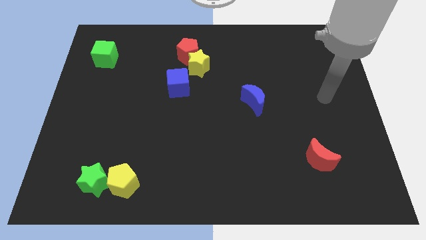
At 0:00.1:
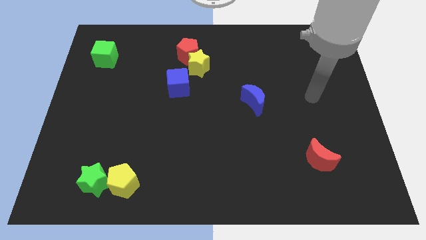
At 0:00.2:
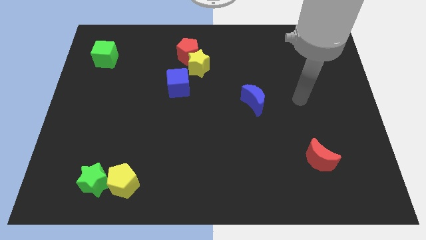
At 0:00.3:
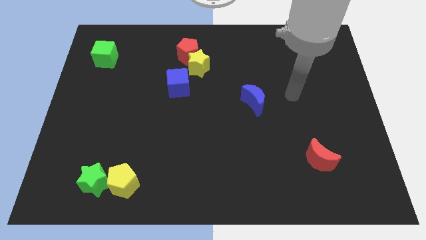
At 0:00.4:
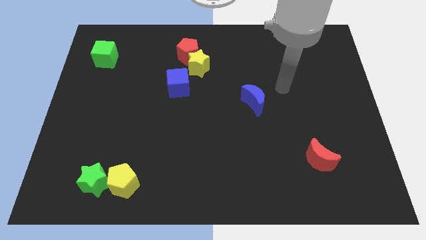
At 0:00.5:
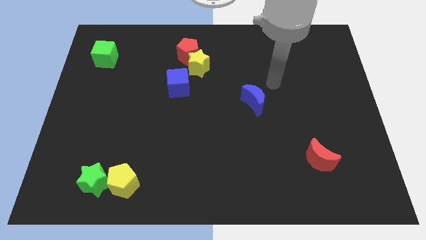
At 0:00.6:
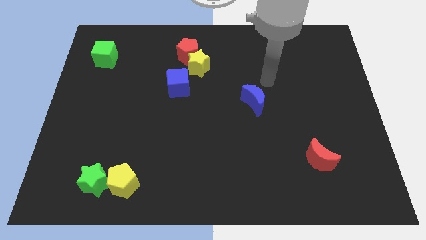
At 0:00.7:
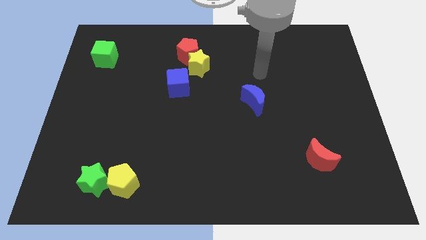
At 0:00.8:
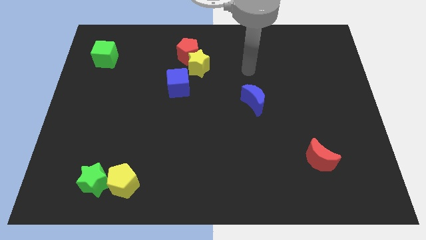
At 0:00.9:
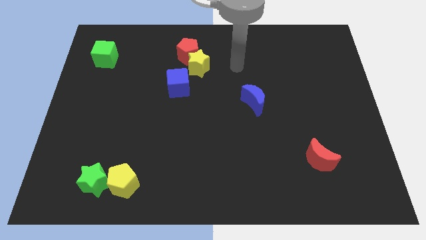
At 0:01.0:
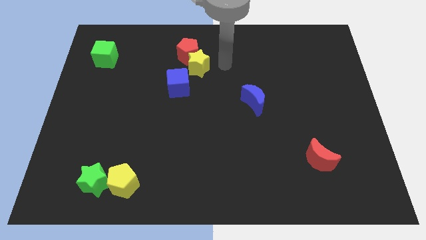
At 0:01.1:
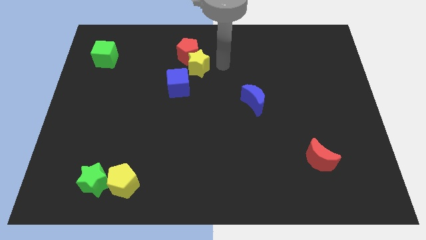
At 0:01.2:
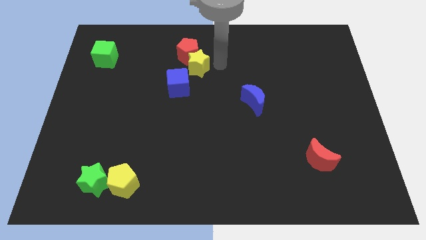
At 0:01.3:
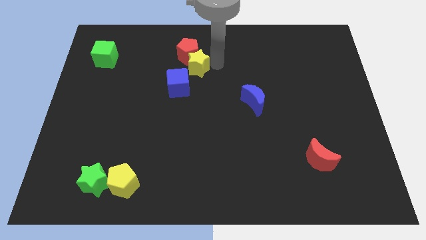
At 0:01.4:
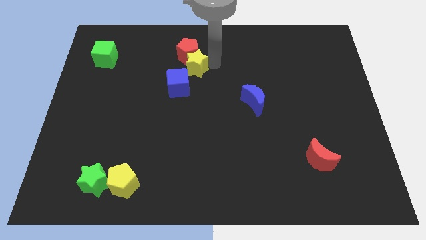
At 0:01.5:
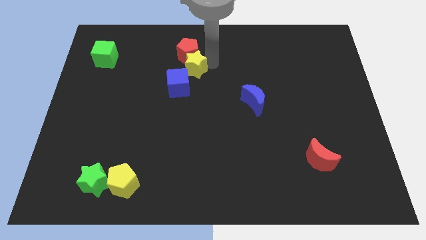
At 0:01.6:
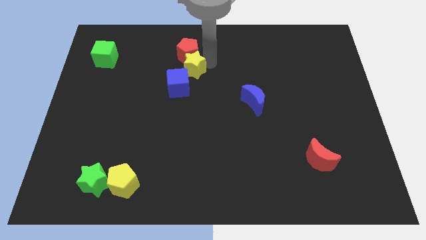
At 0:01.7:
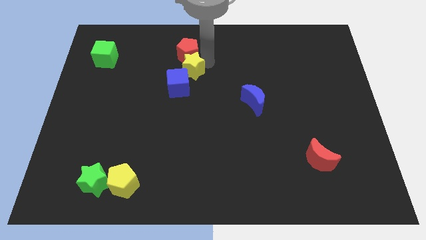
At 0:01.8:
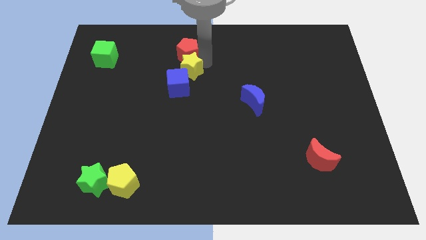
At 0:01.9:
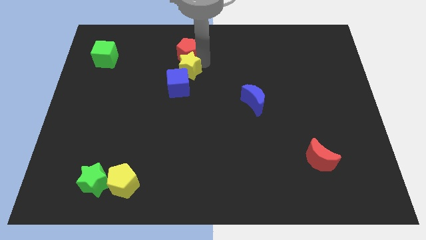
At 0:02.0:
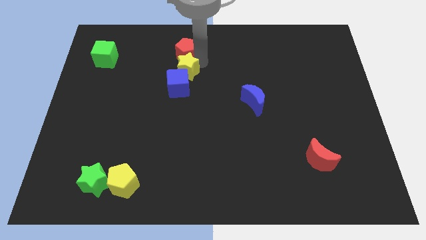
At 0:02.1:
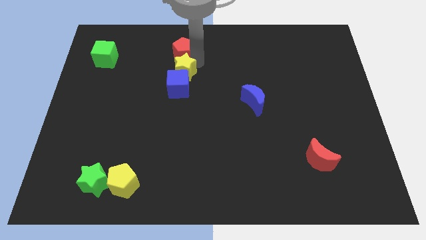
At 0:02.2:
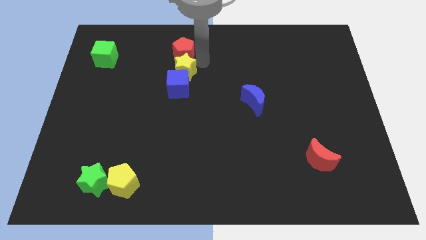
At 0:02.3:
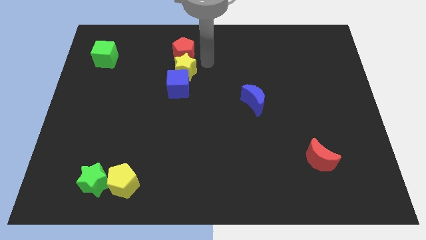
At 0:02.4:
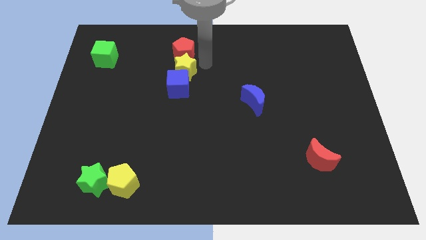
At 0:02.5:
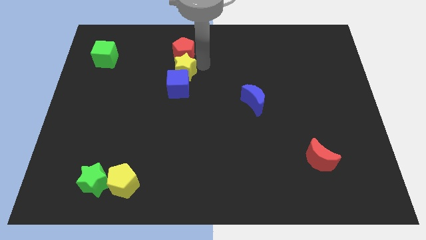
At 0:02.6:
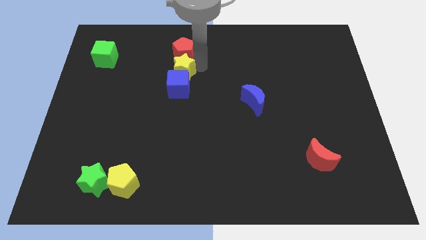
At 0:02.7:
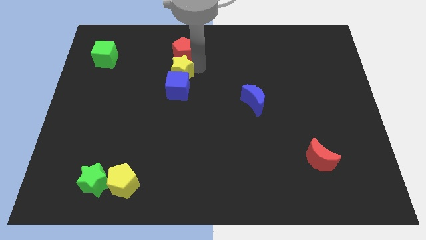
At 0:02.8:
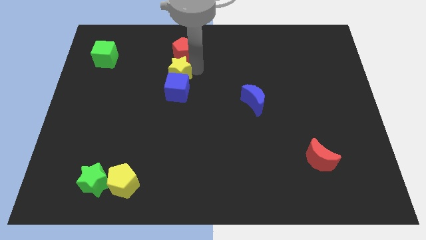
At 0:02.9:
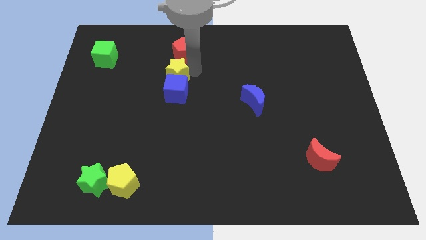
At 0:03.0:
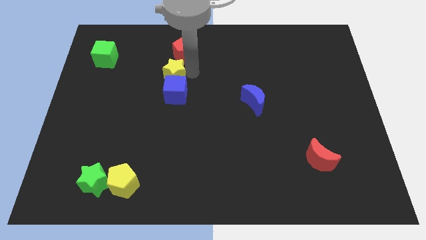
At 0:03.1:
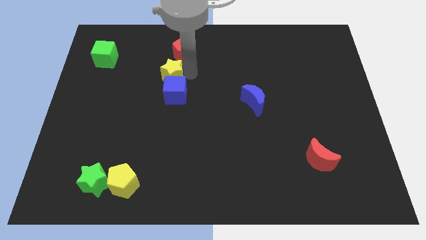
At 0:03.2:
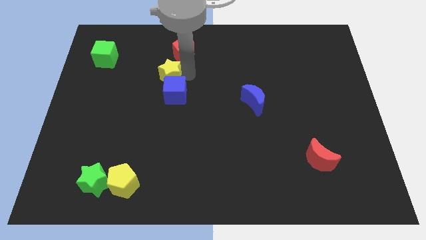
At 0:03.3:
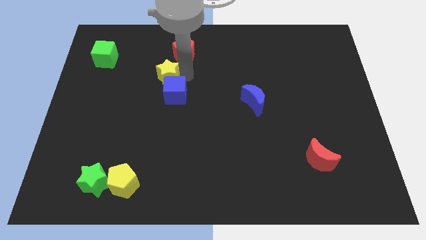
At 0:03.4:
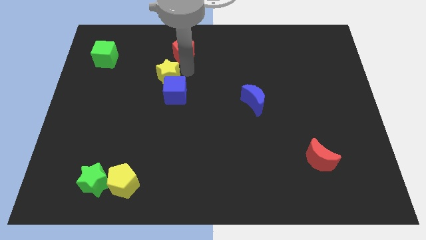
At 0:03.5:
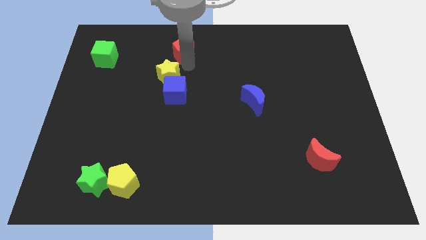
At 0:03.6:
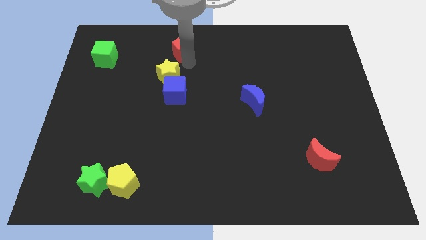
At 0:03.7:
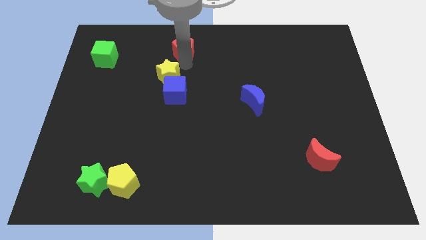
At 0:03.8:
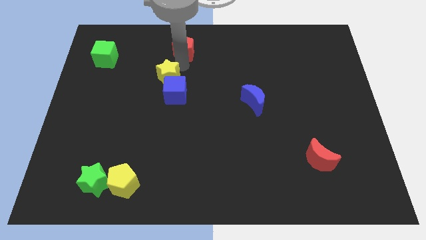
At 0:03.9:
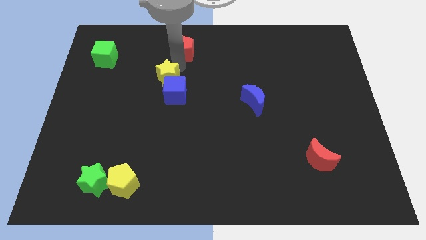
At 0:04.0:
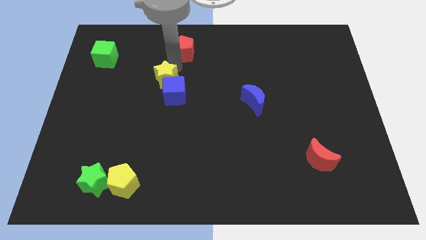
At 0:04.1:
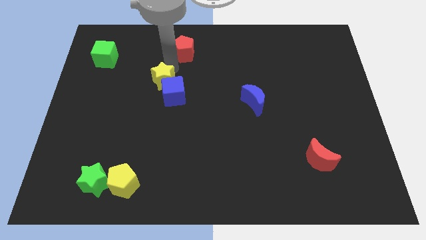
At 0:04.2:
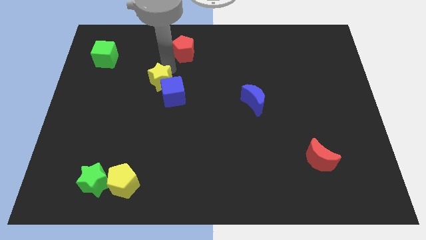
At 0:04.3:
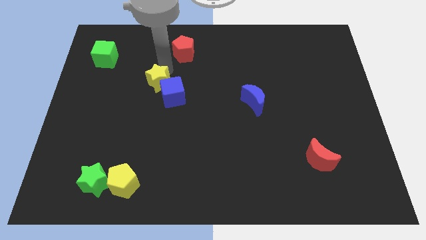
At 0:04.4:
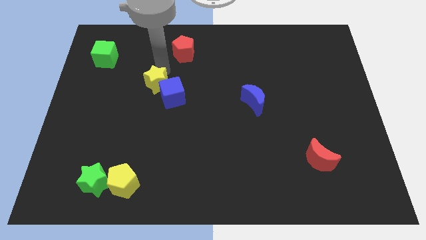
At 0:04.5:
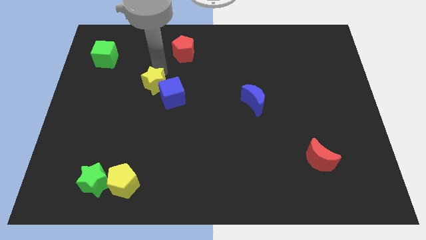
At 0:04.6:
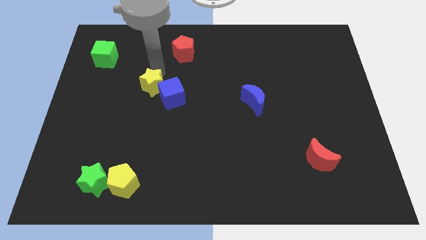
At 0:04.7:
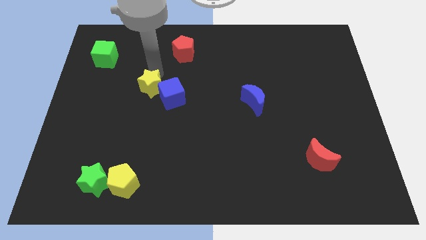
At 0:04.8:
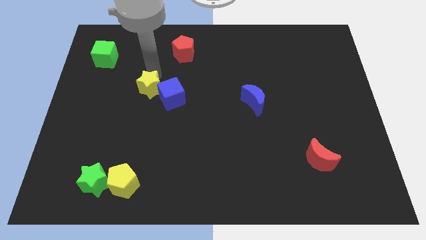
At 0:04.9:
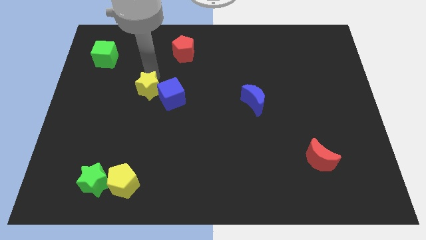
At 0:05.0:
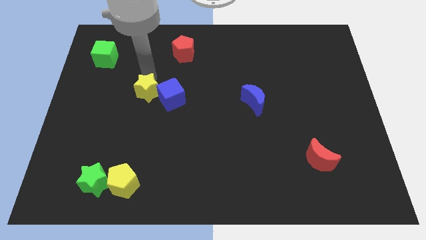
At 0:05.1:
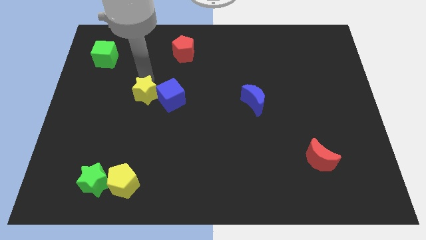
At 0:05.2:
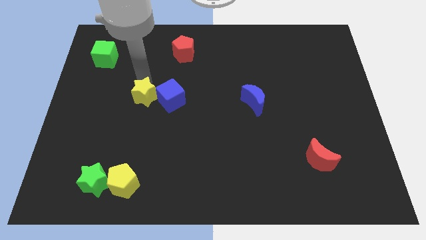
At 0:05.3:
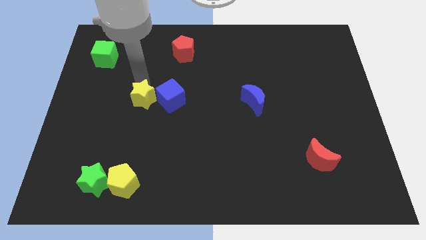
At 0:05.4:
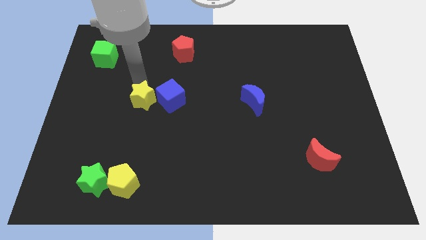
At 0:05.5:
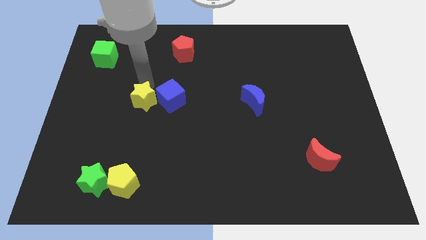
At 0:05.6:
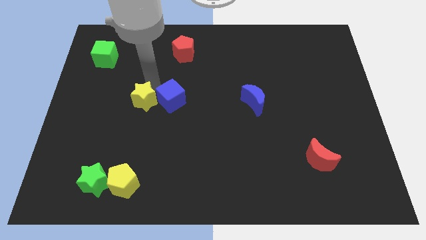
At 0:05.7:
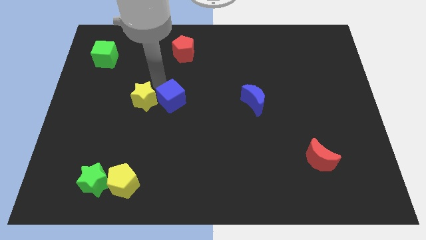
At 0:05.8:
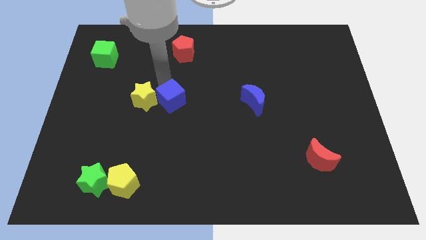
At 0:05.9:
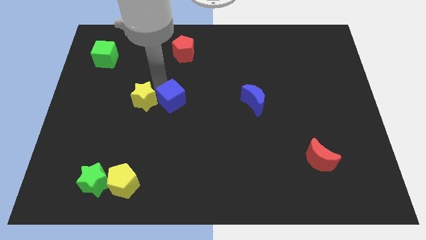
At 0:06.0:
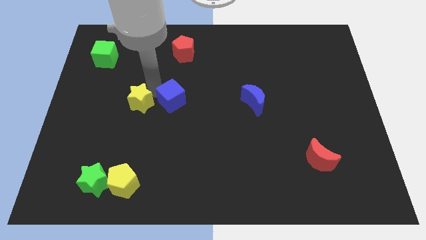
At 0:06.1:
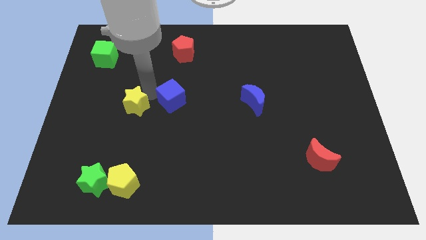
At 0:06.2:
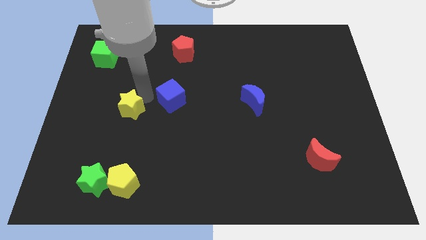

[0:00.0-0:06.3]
push the yellow star diagonally down and to the left

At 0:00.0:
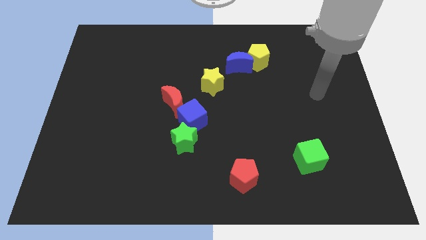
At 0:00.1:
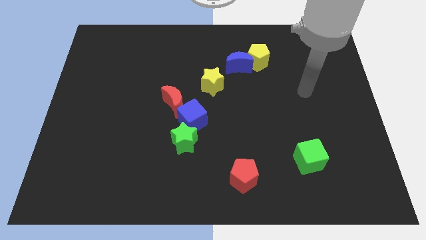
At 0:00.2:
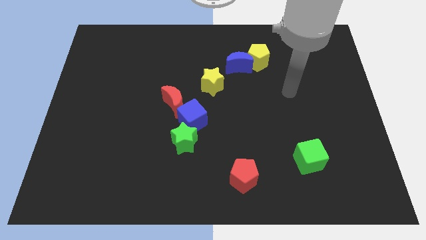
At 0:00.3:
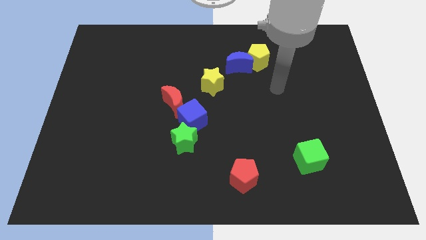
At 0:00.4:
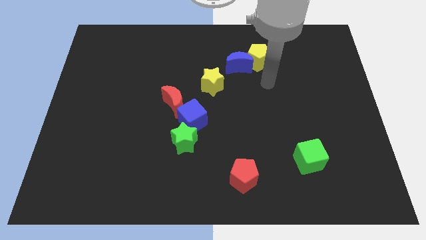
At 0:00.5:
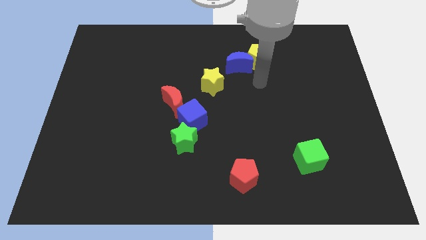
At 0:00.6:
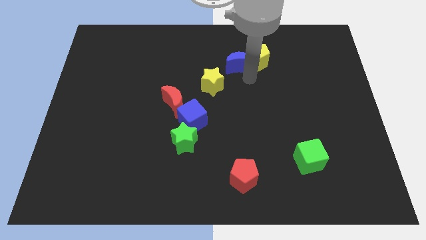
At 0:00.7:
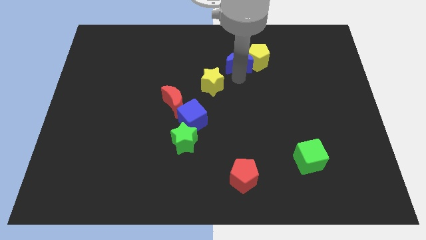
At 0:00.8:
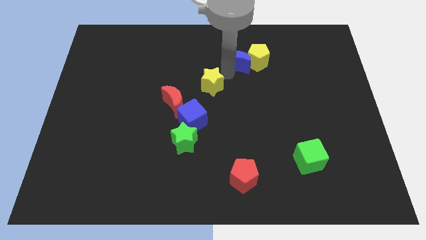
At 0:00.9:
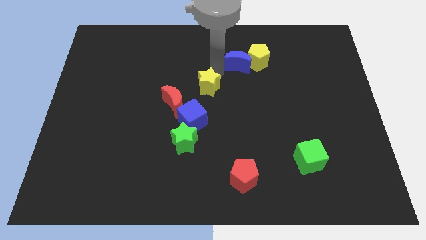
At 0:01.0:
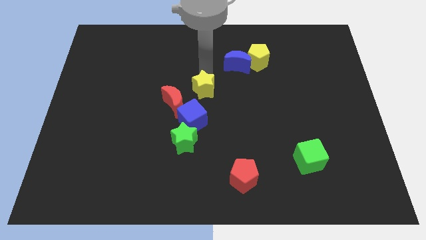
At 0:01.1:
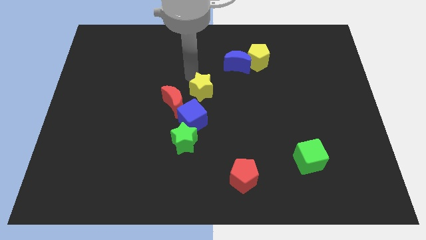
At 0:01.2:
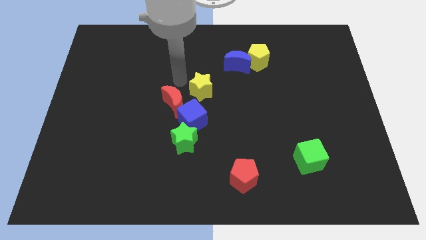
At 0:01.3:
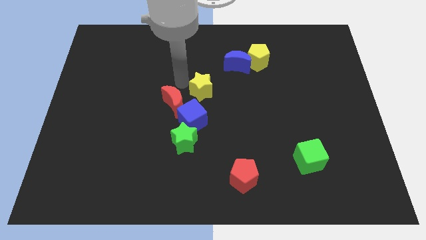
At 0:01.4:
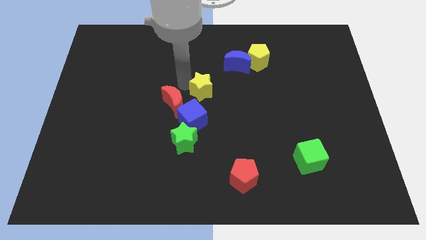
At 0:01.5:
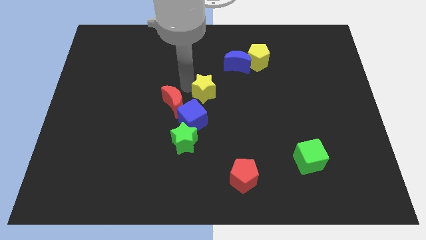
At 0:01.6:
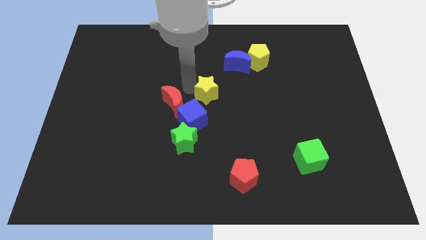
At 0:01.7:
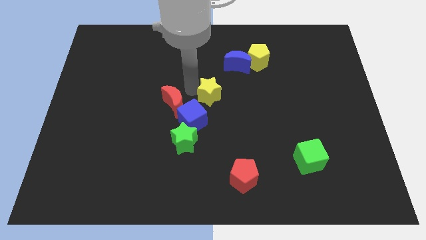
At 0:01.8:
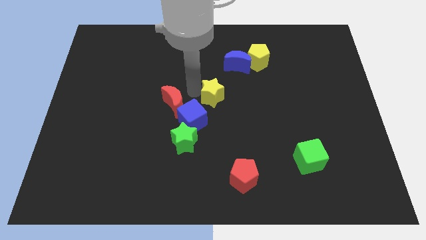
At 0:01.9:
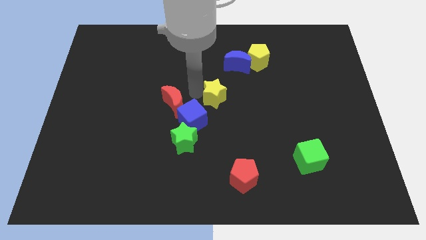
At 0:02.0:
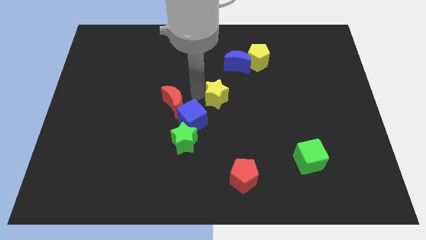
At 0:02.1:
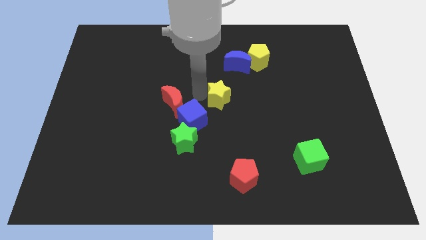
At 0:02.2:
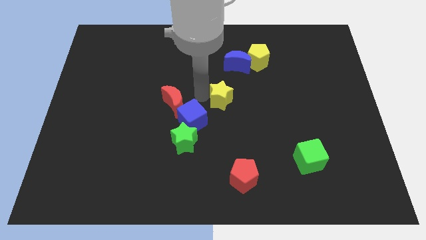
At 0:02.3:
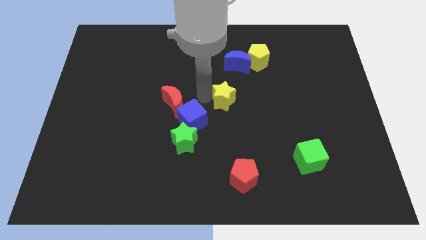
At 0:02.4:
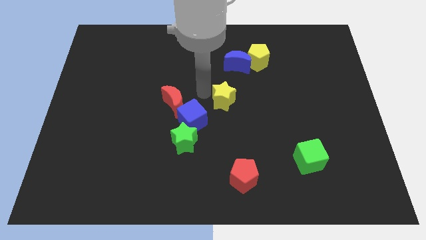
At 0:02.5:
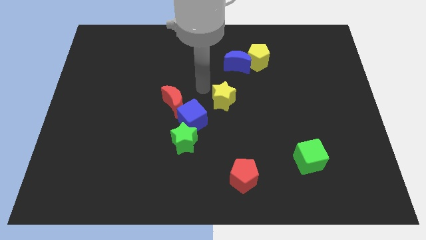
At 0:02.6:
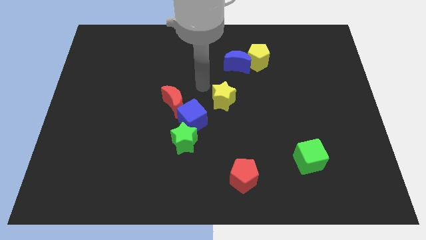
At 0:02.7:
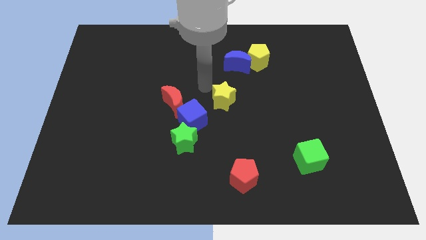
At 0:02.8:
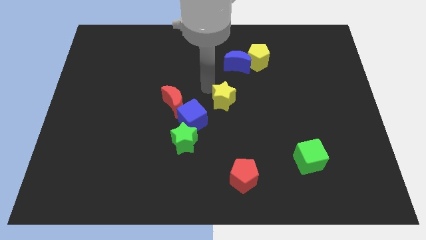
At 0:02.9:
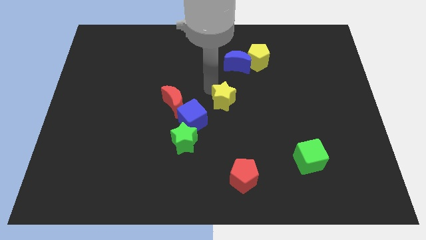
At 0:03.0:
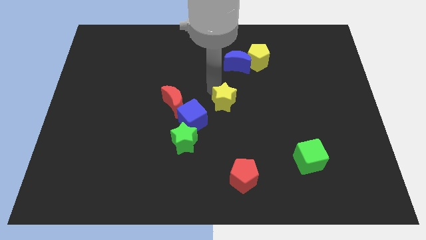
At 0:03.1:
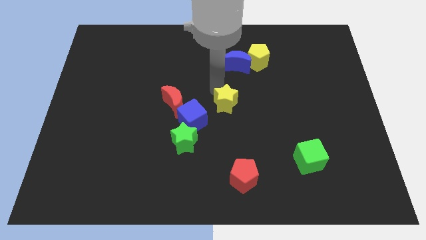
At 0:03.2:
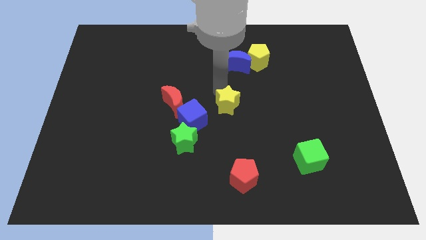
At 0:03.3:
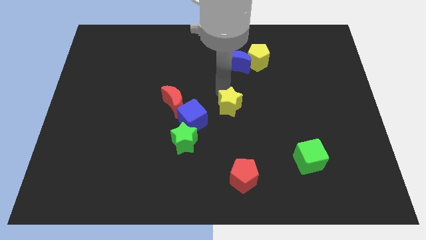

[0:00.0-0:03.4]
move the yellow star somewhat downwards and to the right
